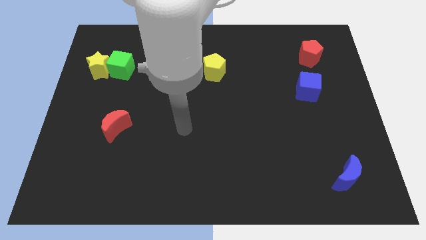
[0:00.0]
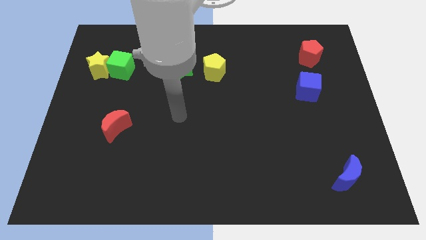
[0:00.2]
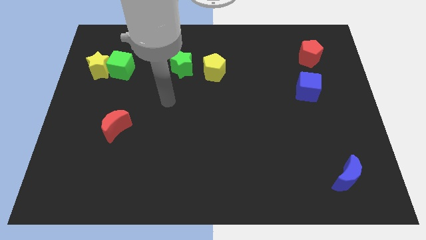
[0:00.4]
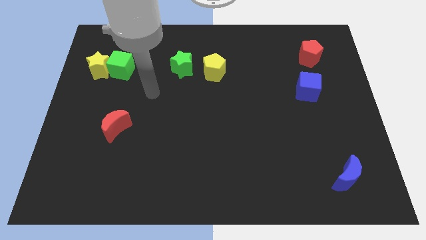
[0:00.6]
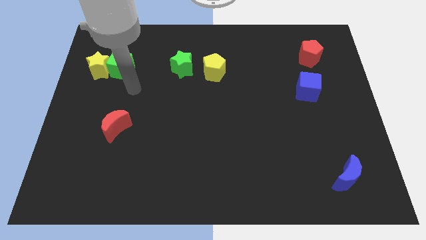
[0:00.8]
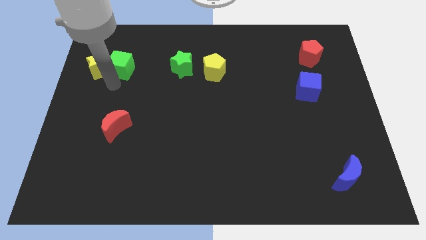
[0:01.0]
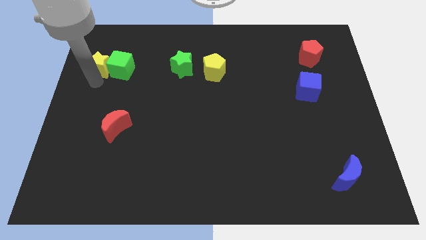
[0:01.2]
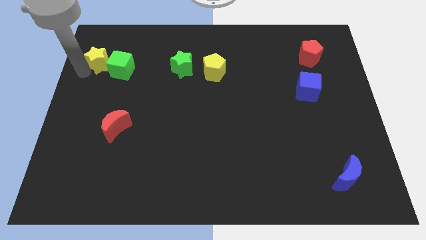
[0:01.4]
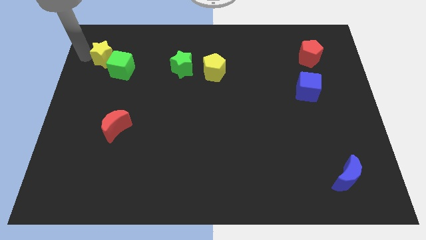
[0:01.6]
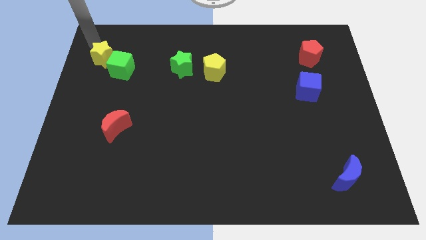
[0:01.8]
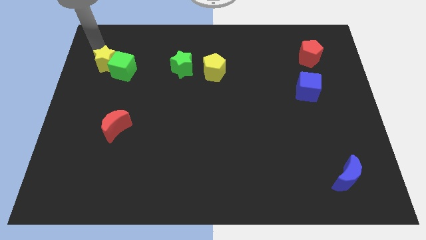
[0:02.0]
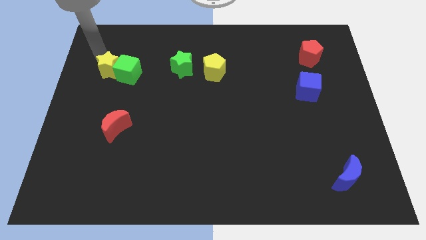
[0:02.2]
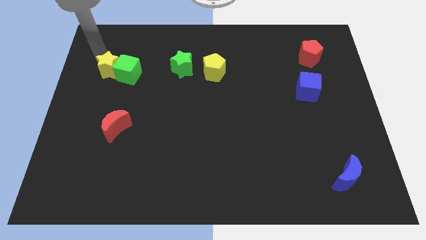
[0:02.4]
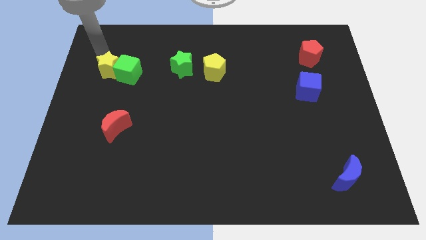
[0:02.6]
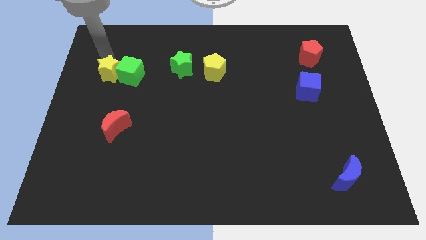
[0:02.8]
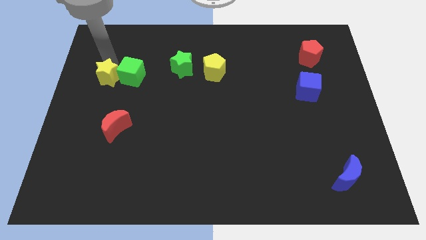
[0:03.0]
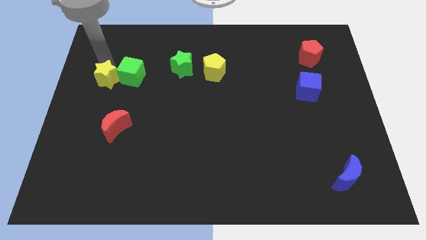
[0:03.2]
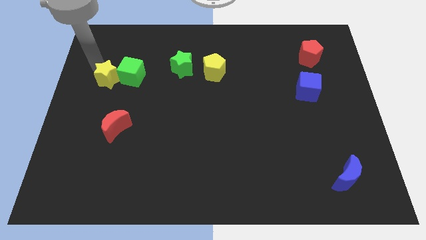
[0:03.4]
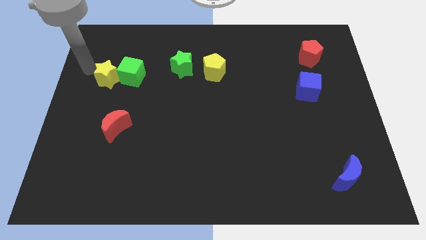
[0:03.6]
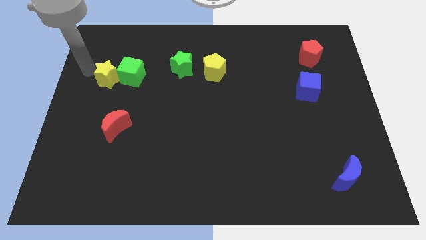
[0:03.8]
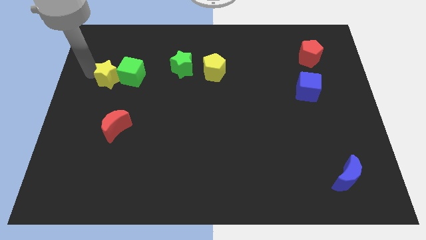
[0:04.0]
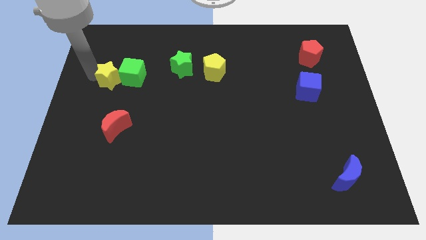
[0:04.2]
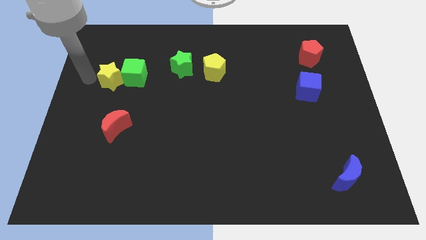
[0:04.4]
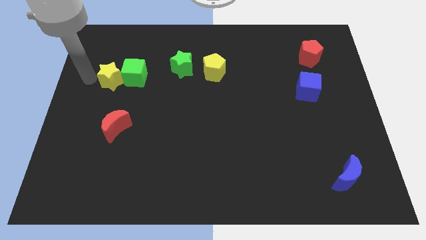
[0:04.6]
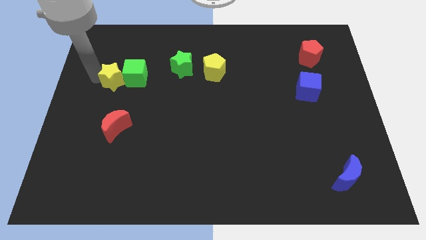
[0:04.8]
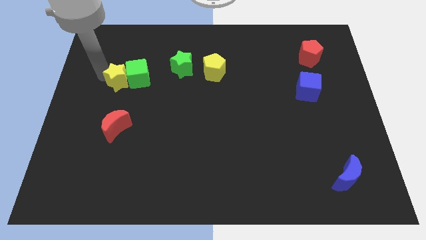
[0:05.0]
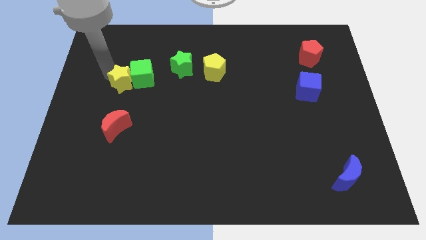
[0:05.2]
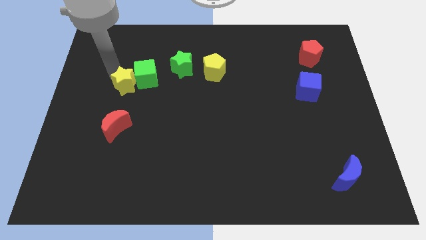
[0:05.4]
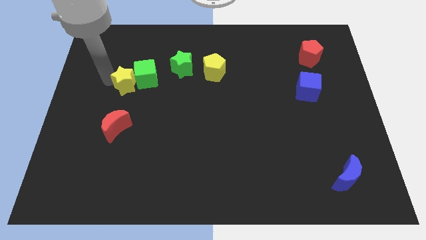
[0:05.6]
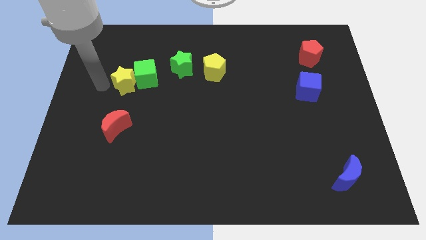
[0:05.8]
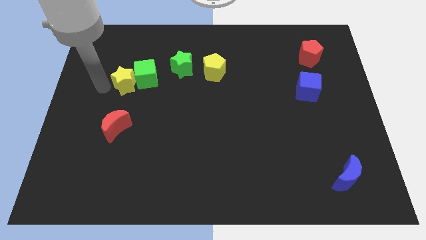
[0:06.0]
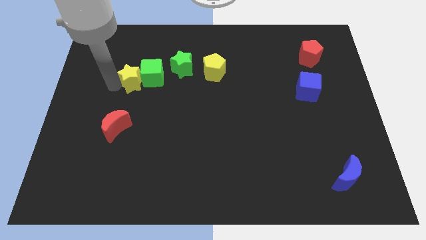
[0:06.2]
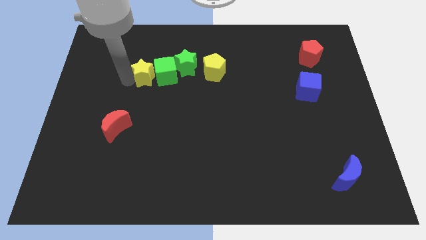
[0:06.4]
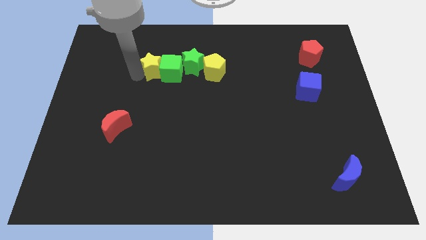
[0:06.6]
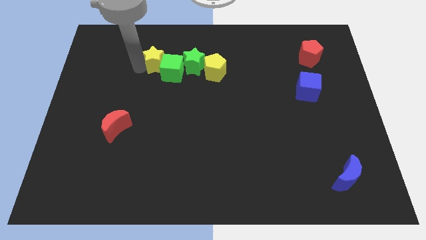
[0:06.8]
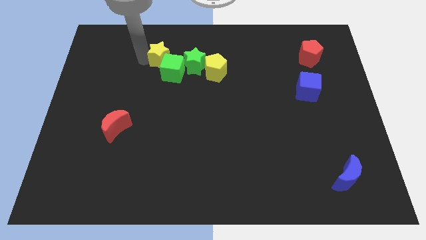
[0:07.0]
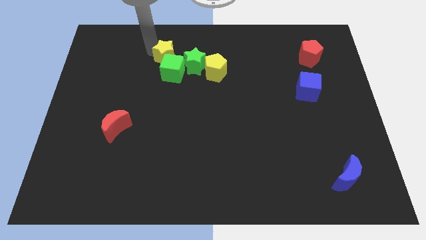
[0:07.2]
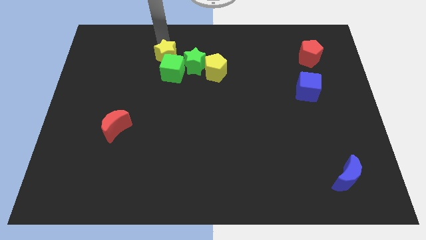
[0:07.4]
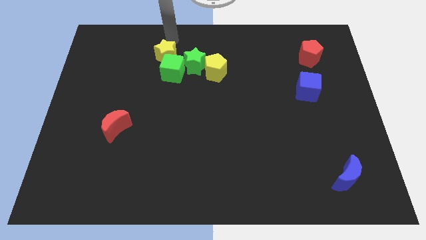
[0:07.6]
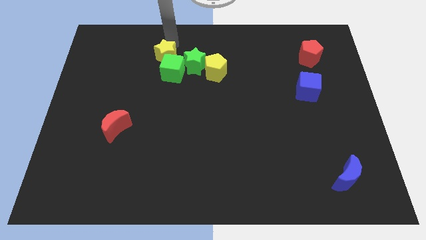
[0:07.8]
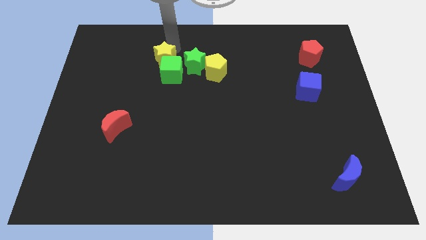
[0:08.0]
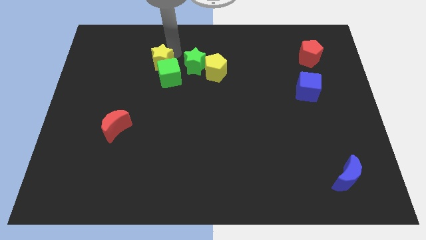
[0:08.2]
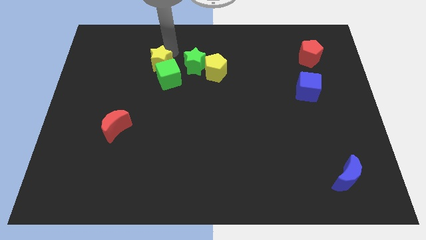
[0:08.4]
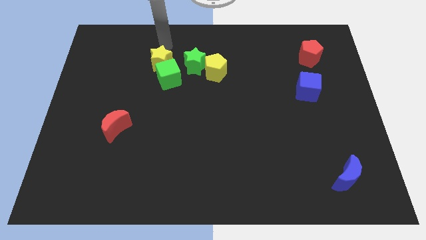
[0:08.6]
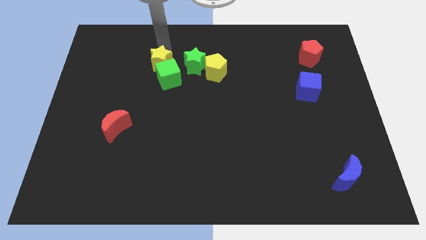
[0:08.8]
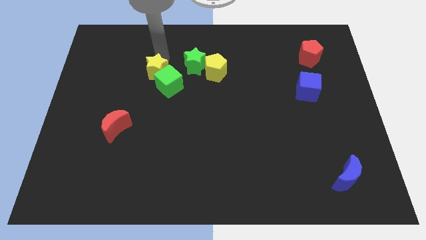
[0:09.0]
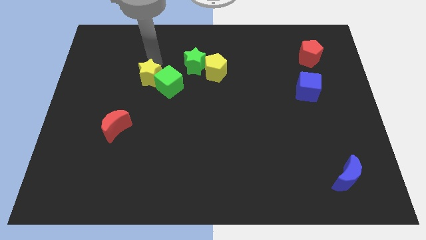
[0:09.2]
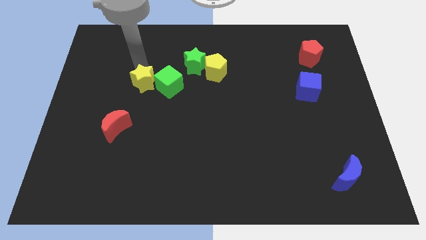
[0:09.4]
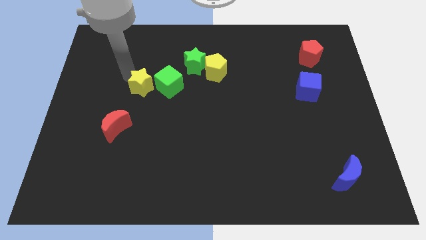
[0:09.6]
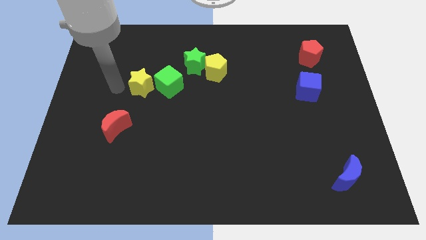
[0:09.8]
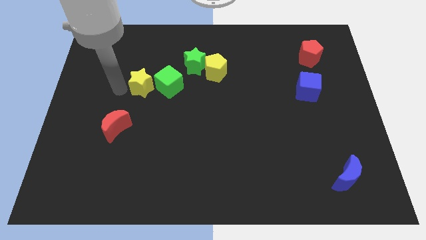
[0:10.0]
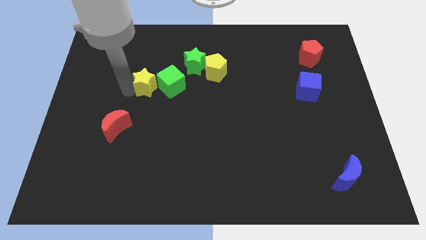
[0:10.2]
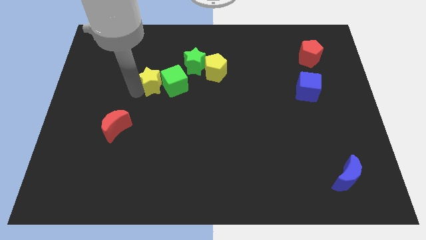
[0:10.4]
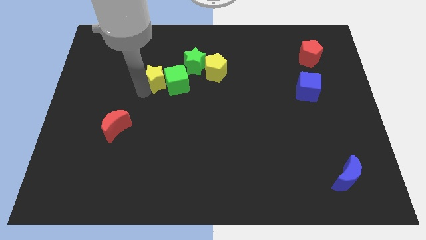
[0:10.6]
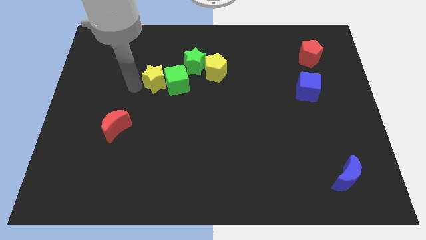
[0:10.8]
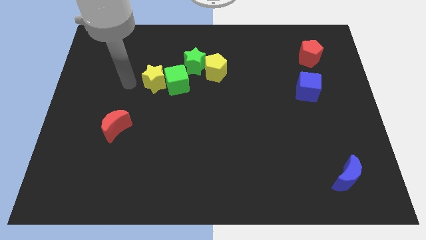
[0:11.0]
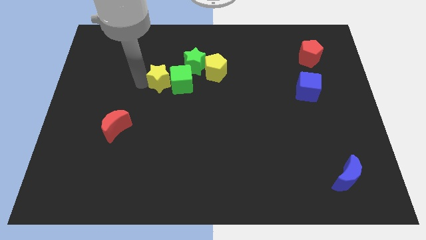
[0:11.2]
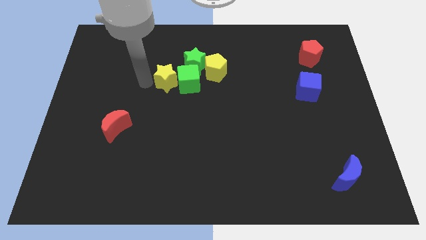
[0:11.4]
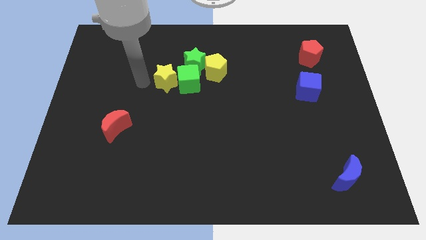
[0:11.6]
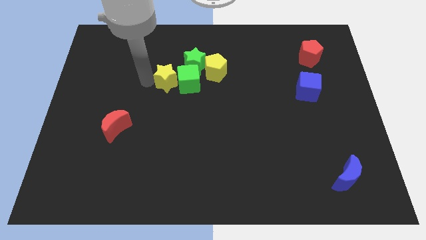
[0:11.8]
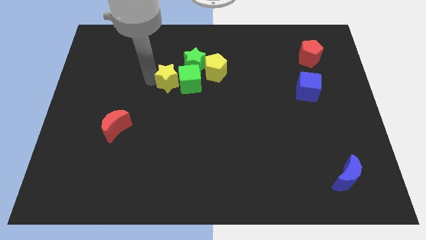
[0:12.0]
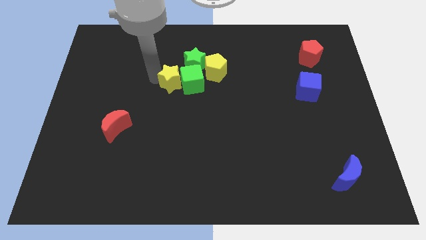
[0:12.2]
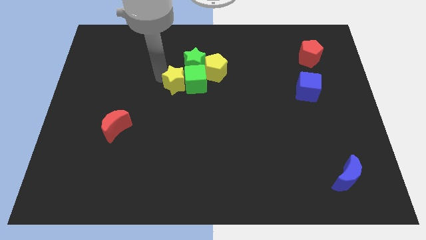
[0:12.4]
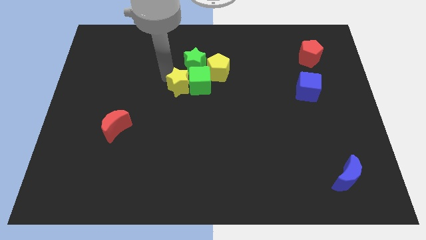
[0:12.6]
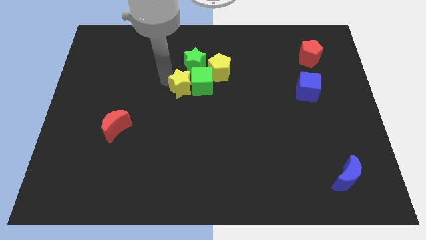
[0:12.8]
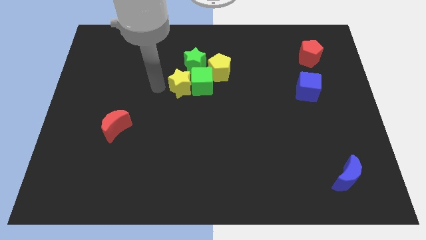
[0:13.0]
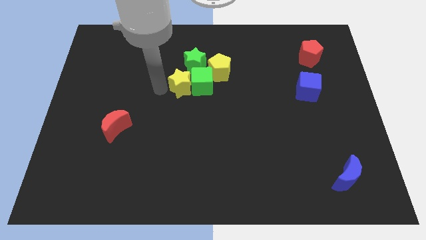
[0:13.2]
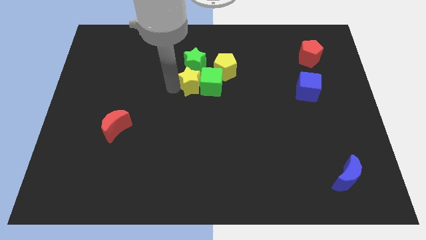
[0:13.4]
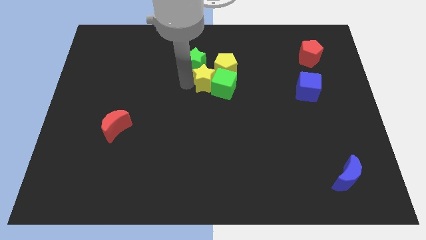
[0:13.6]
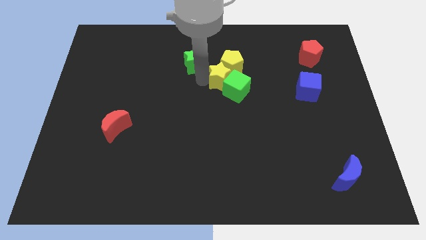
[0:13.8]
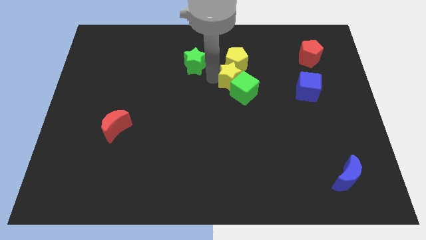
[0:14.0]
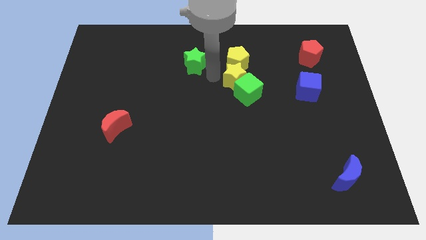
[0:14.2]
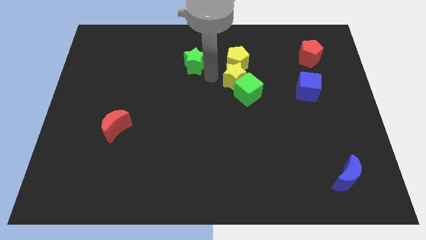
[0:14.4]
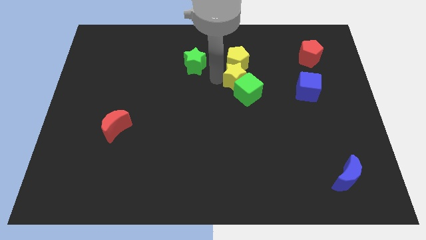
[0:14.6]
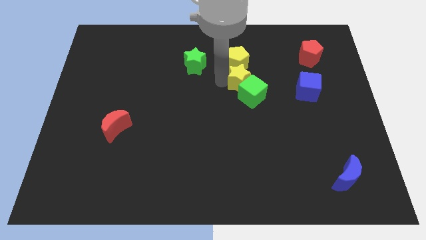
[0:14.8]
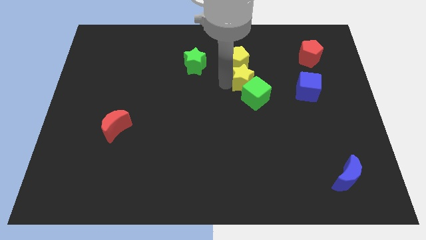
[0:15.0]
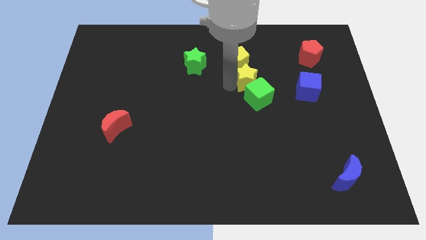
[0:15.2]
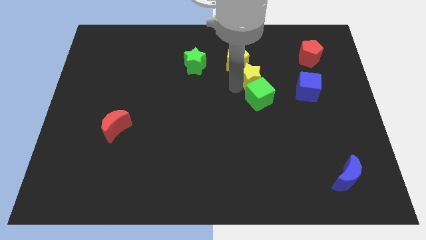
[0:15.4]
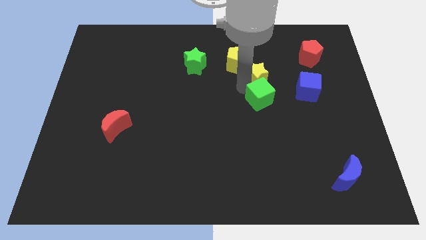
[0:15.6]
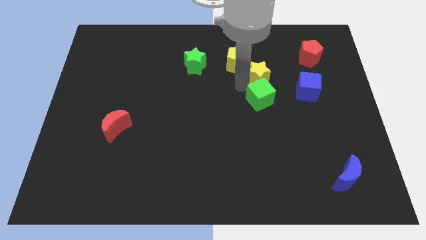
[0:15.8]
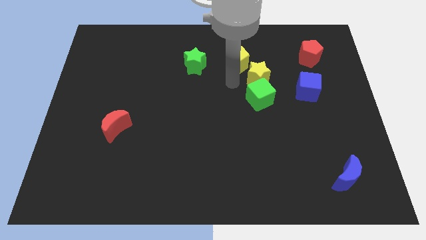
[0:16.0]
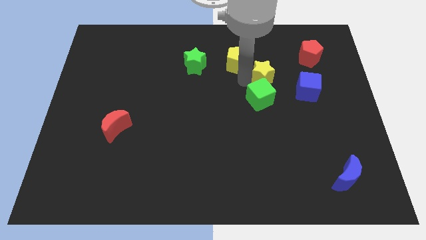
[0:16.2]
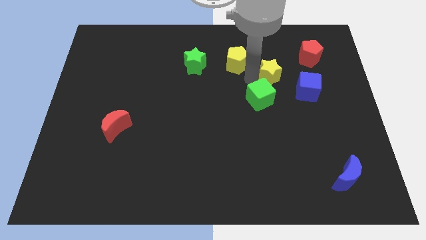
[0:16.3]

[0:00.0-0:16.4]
put the yellow star to the top left of the blue cube
